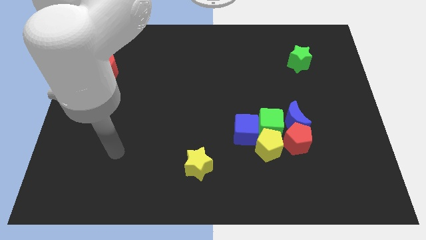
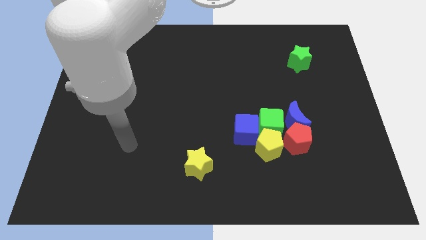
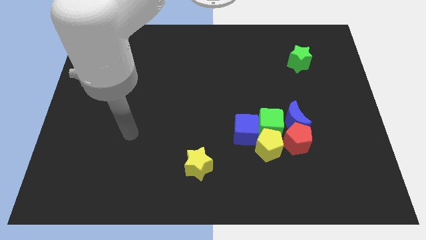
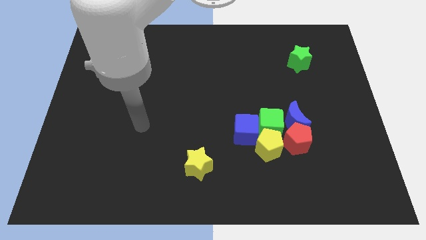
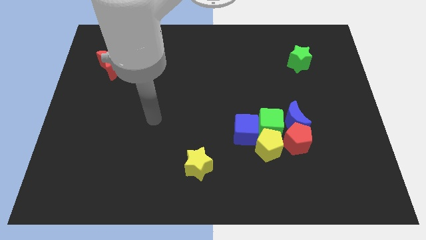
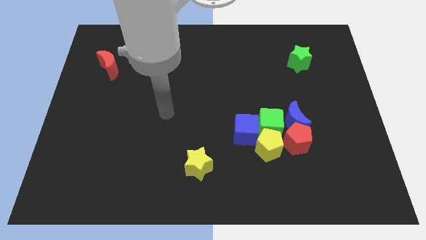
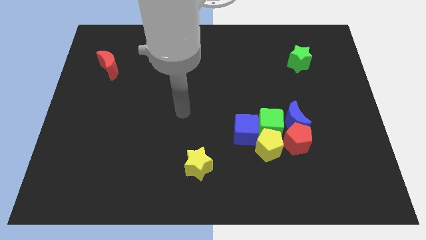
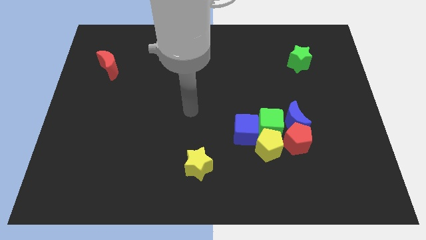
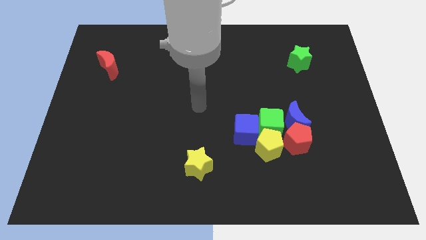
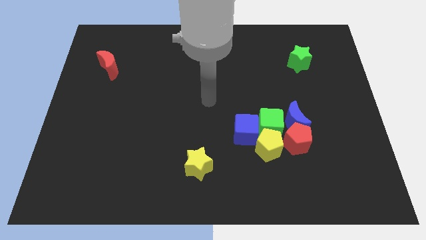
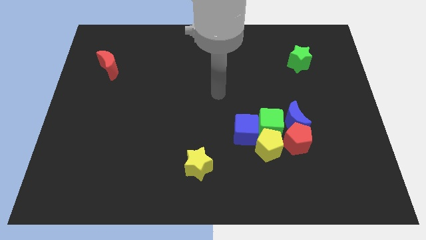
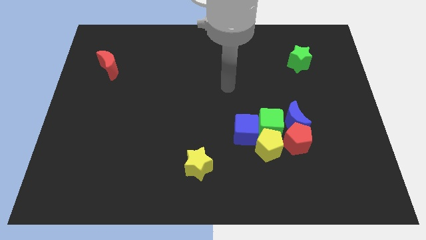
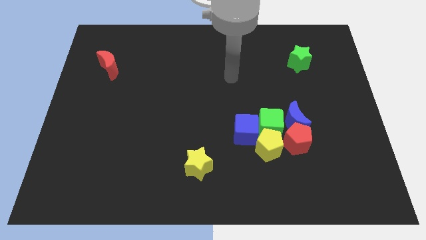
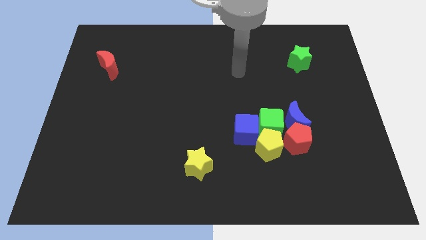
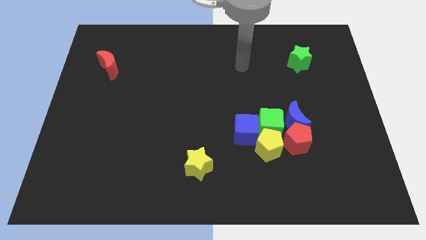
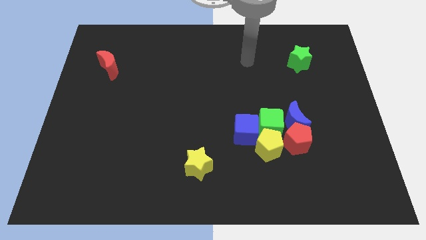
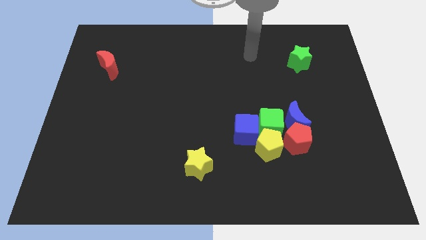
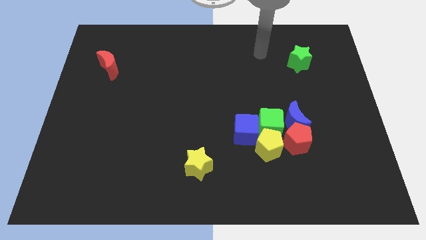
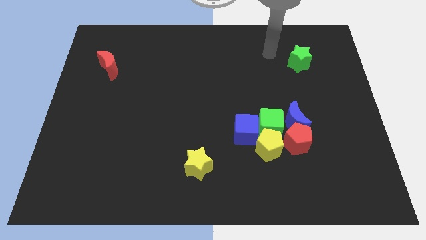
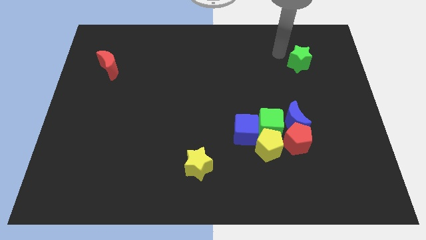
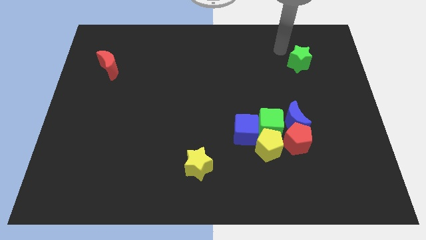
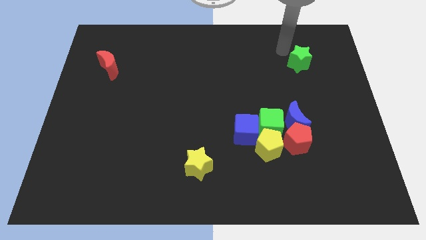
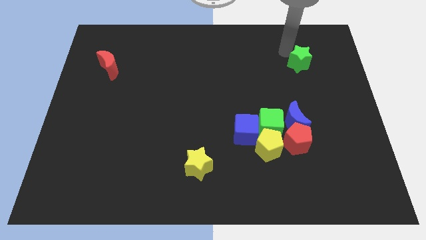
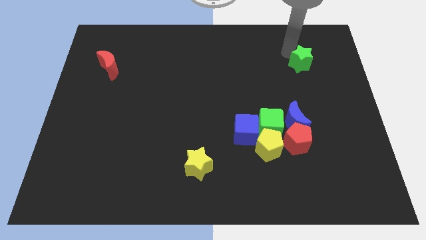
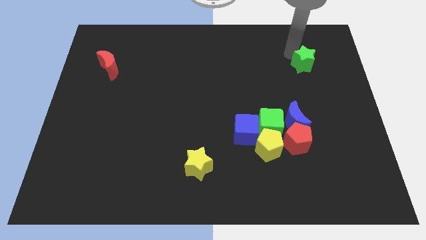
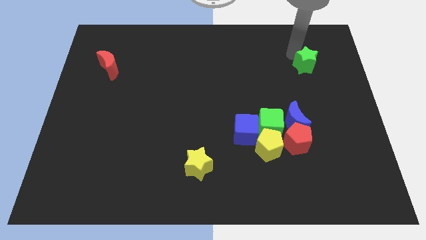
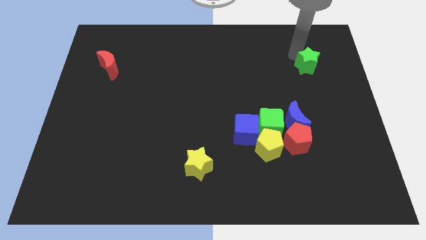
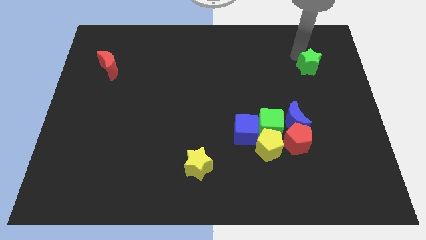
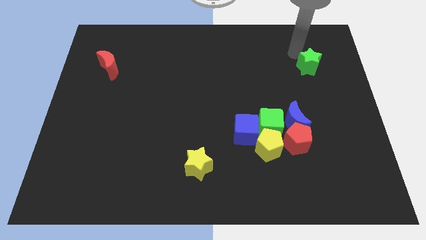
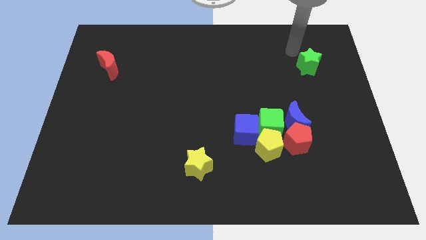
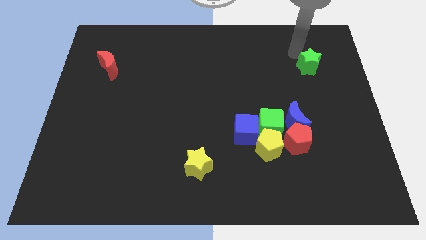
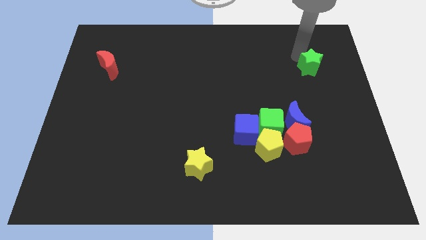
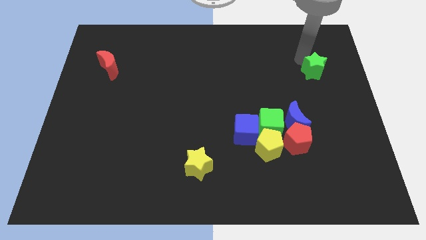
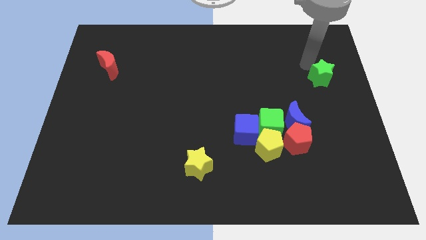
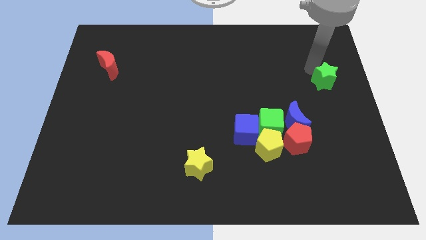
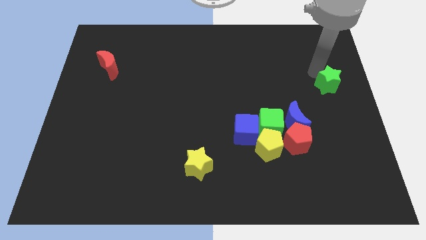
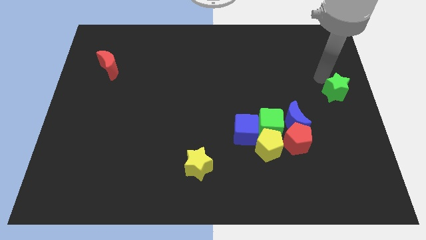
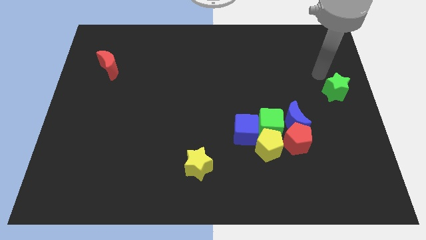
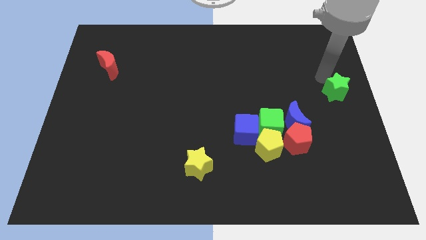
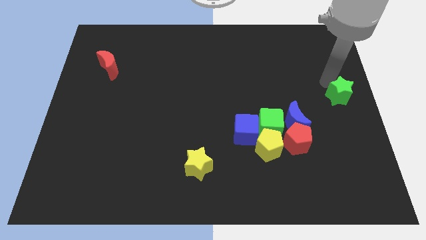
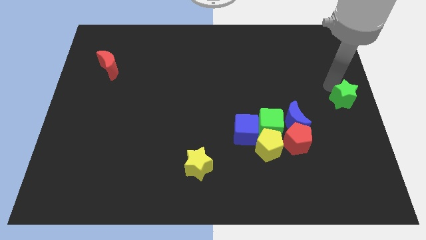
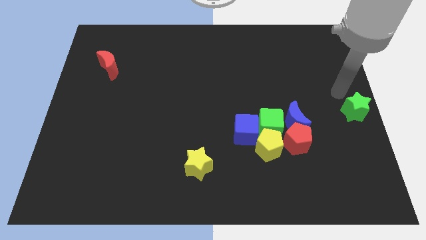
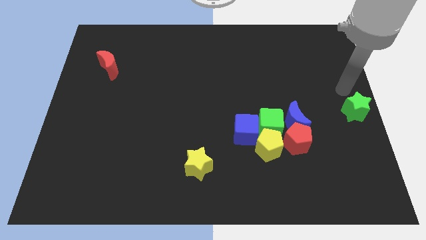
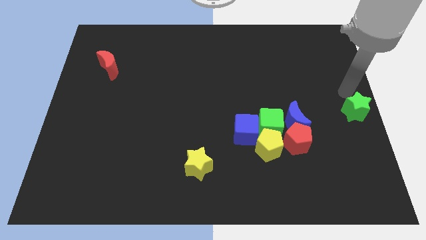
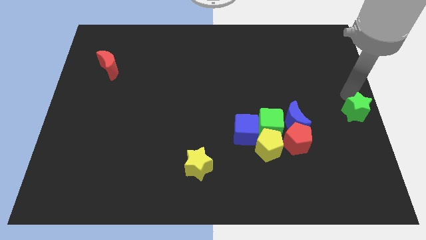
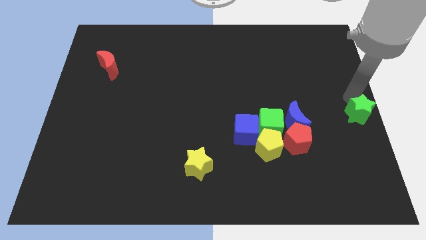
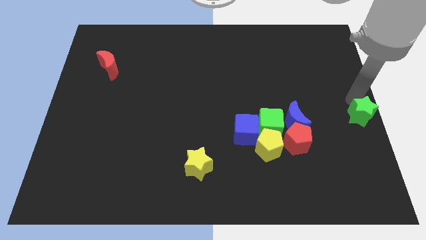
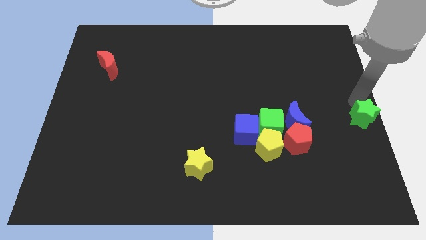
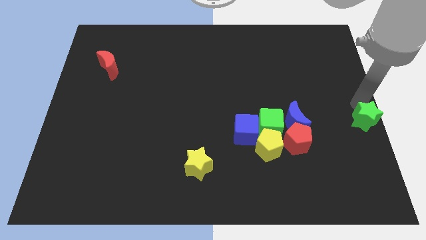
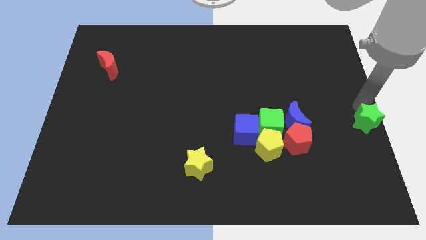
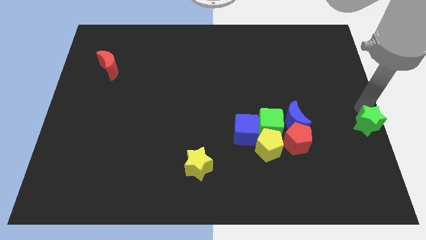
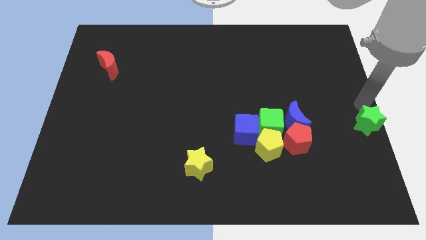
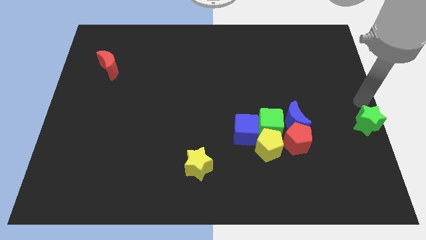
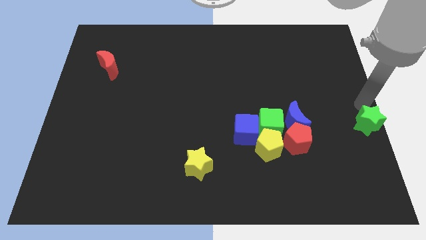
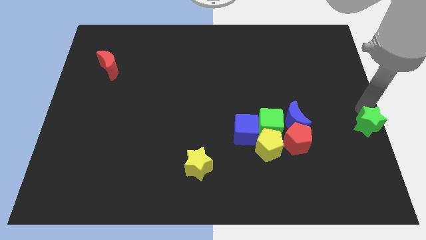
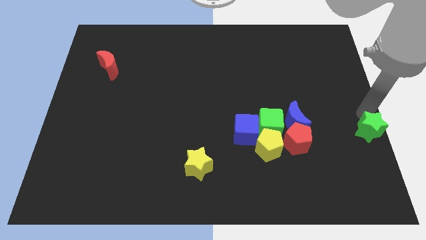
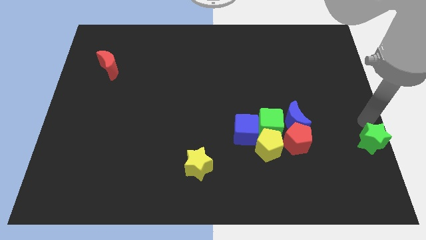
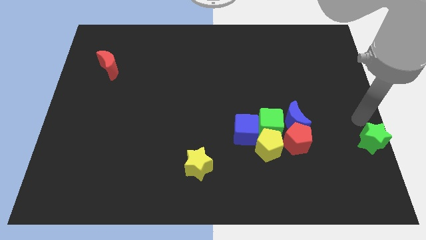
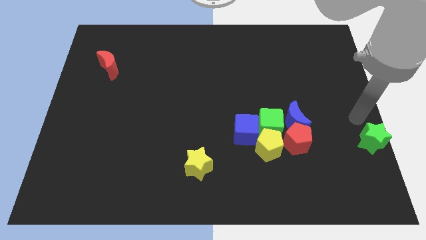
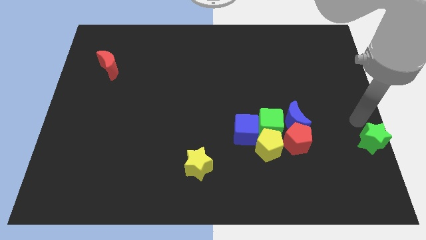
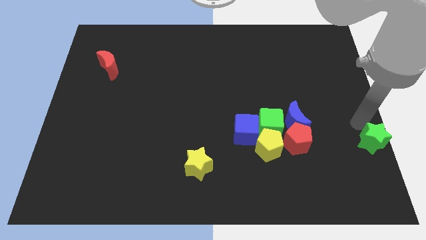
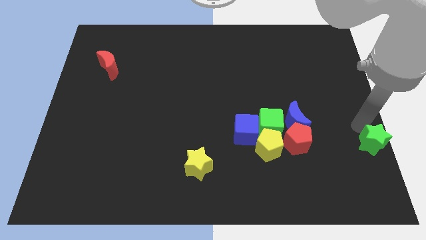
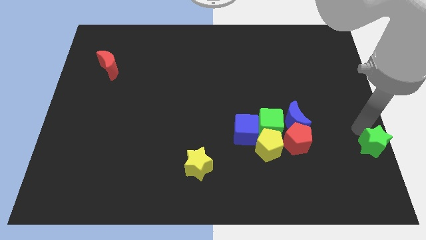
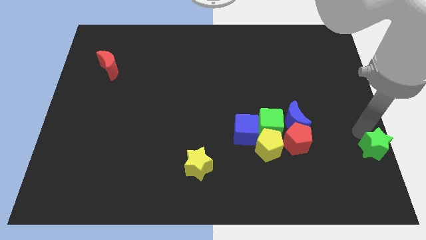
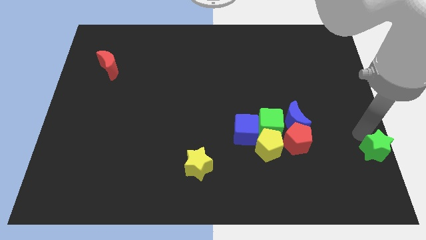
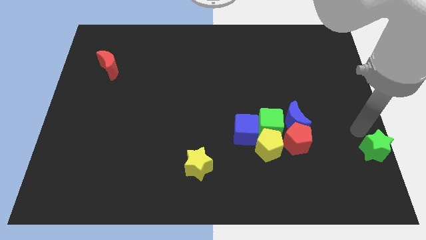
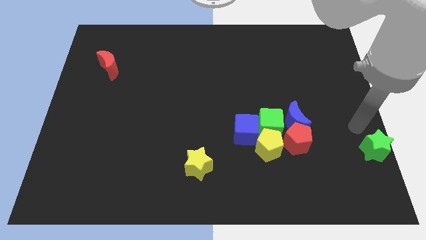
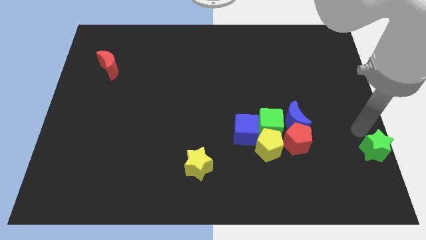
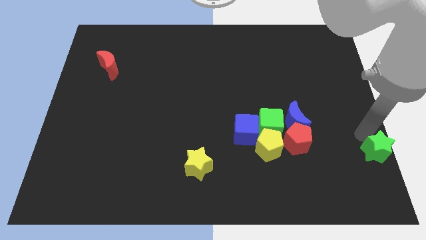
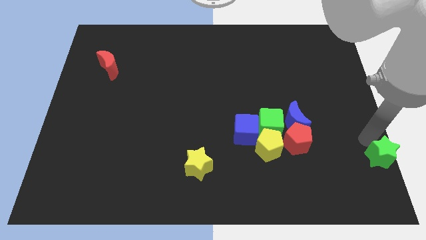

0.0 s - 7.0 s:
move the green star to the lower right corner
